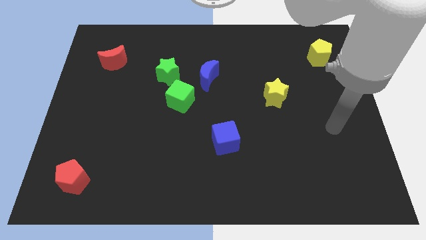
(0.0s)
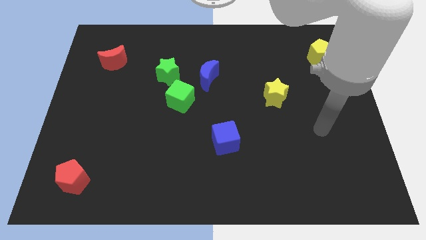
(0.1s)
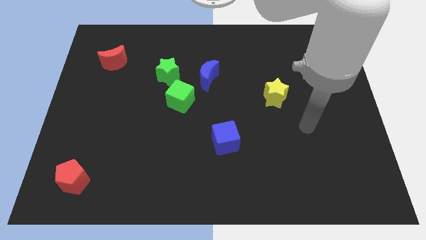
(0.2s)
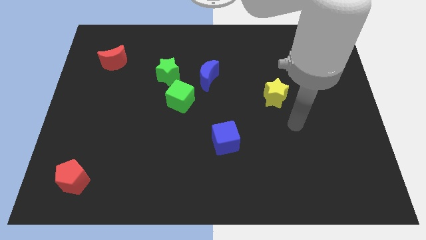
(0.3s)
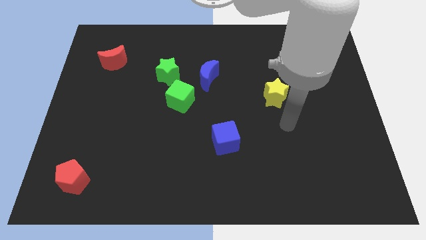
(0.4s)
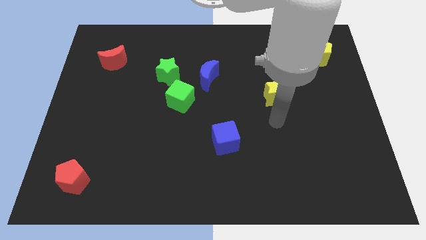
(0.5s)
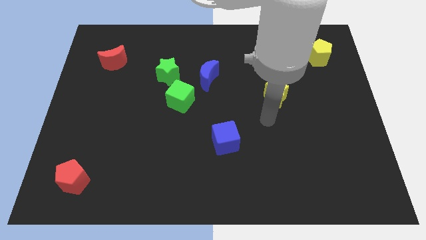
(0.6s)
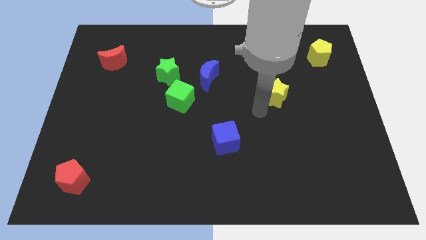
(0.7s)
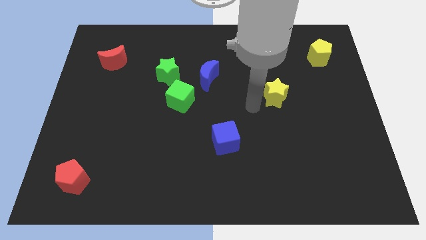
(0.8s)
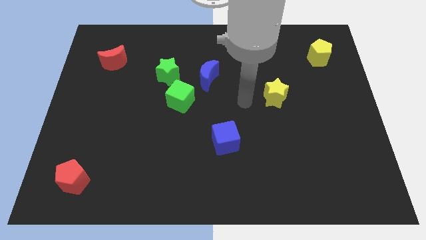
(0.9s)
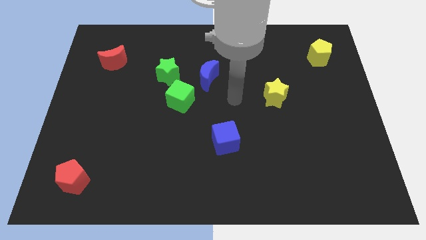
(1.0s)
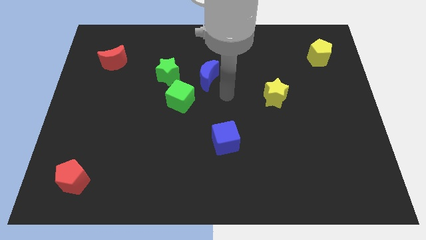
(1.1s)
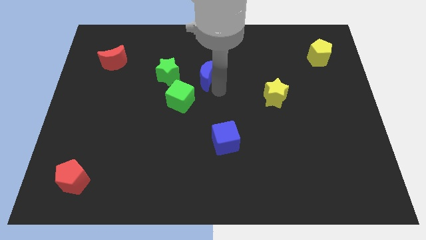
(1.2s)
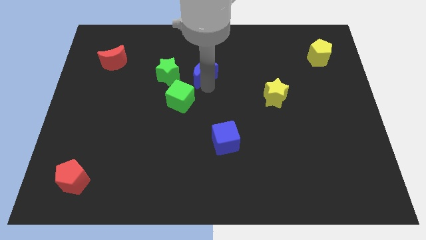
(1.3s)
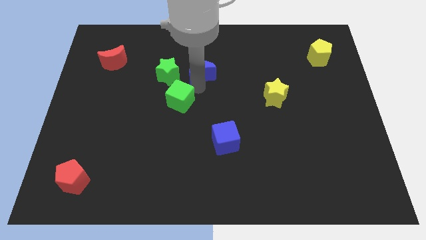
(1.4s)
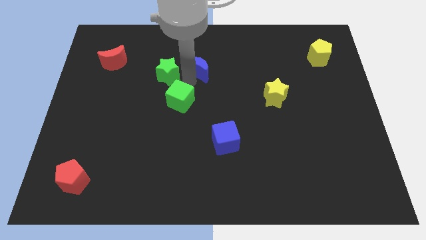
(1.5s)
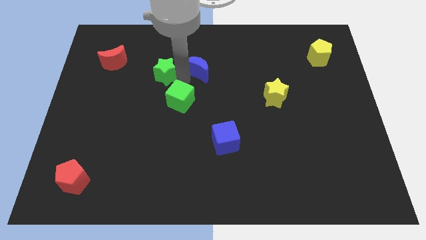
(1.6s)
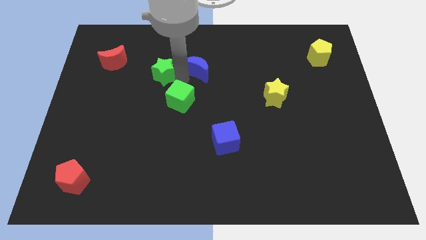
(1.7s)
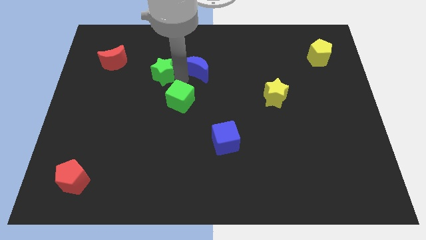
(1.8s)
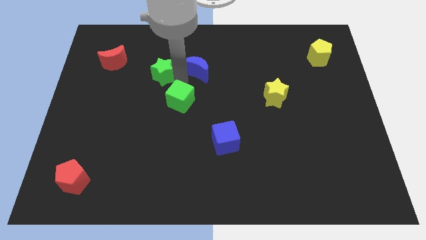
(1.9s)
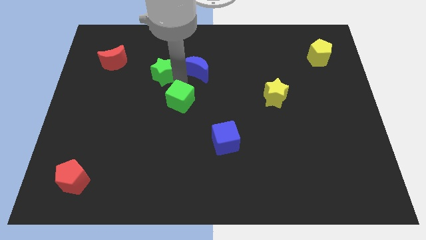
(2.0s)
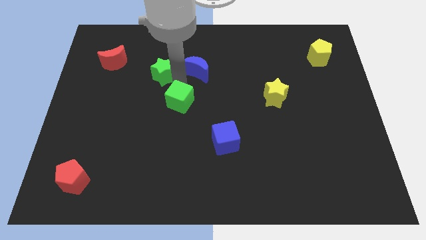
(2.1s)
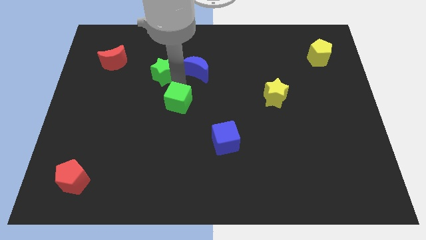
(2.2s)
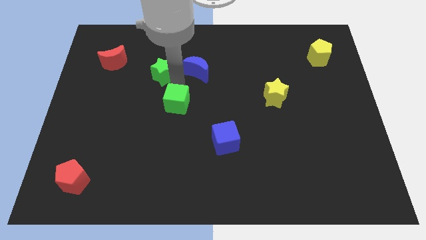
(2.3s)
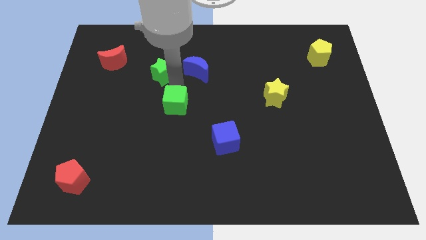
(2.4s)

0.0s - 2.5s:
pull the green cube apart from the green star and blue moon

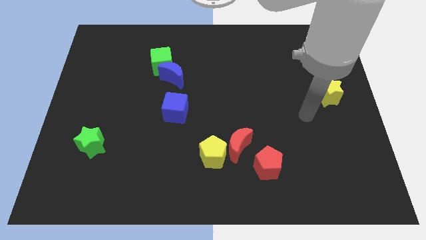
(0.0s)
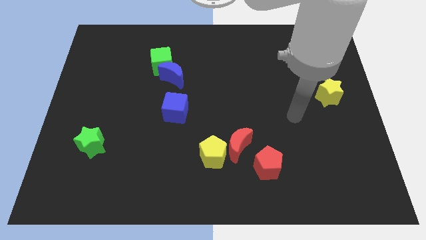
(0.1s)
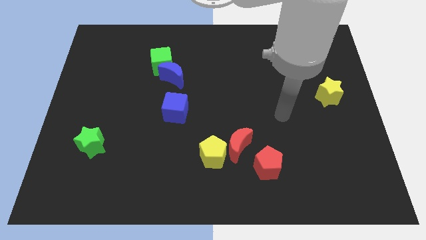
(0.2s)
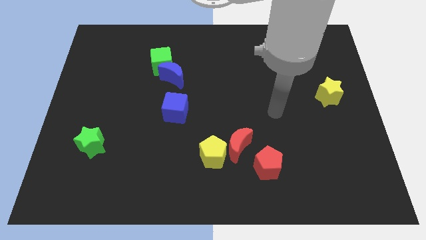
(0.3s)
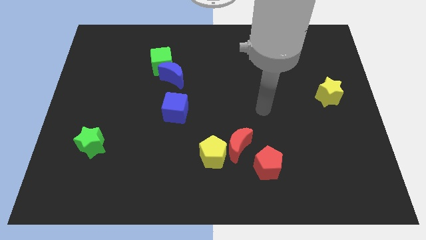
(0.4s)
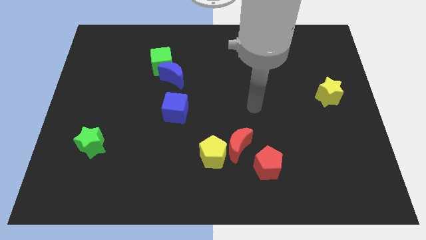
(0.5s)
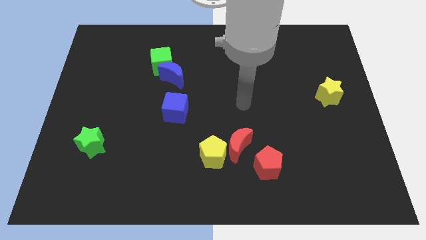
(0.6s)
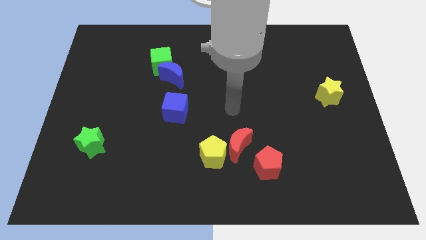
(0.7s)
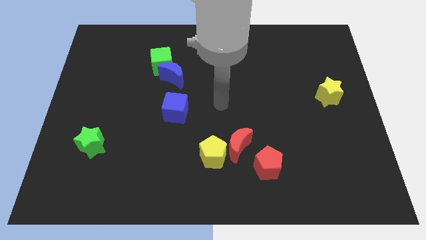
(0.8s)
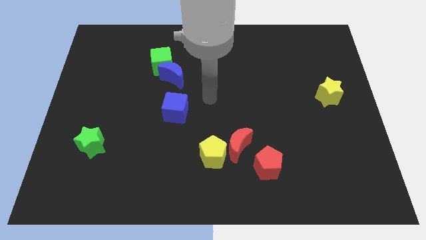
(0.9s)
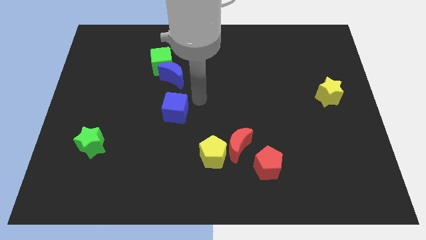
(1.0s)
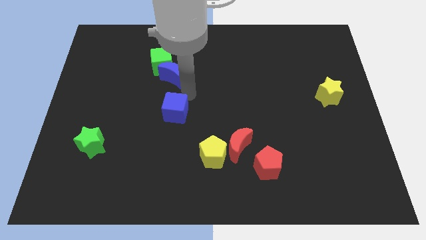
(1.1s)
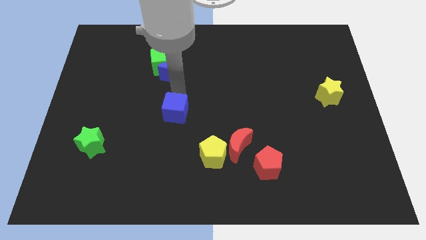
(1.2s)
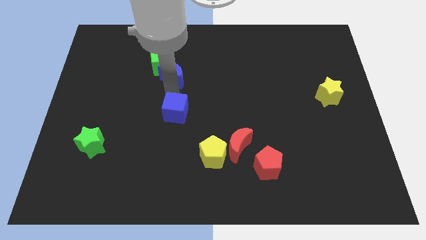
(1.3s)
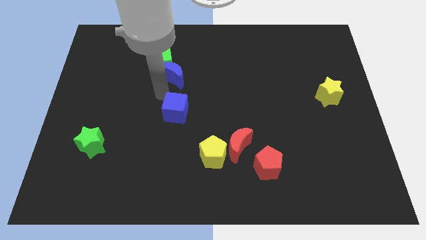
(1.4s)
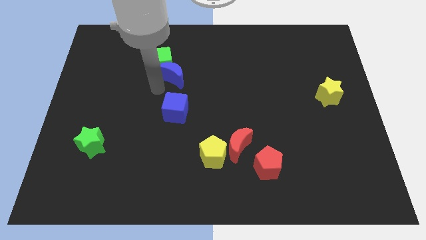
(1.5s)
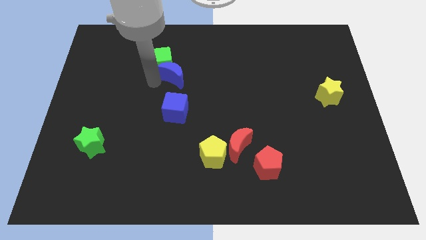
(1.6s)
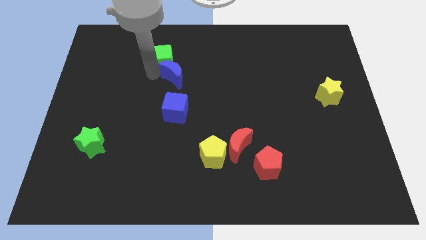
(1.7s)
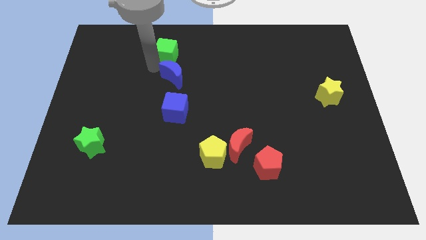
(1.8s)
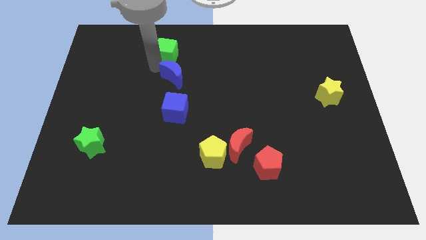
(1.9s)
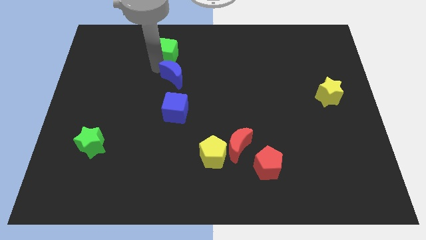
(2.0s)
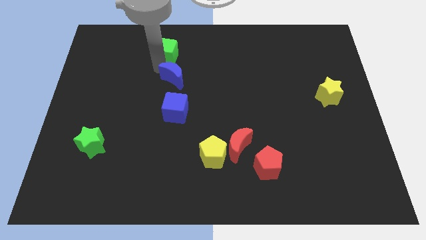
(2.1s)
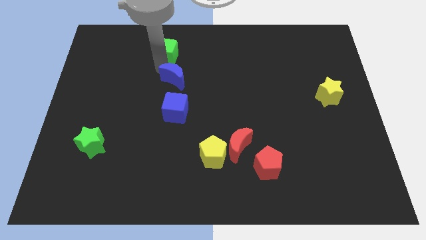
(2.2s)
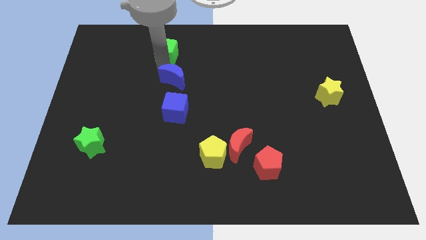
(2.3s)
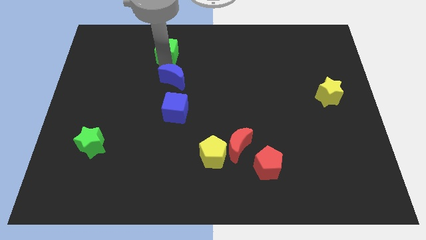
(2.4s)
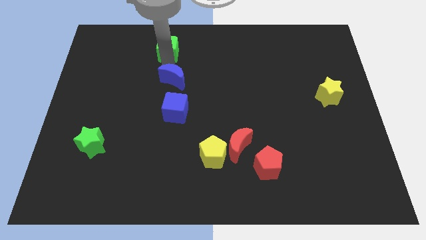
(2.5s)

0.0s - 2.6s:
pull the blue moon apart from the green cube

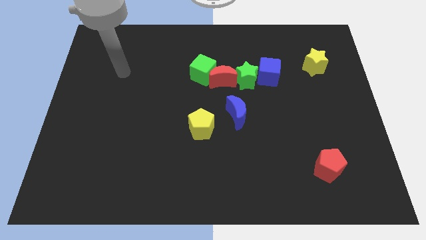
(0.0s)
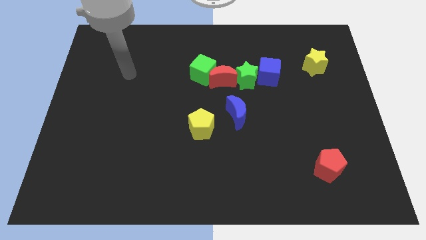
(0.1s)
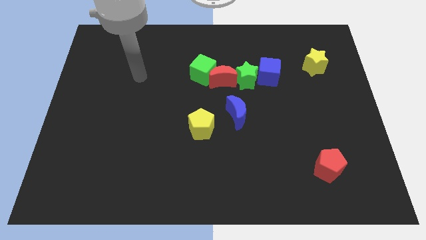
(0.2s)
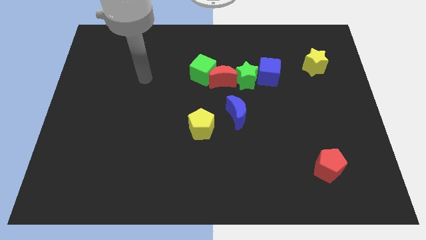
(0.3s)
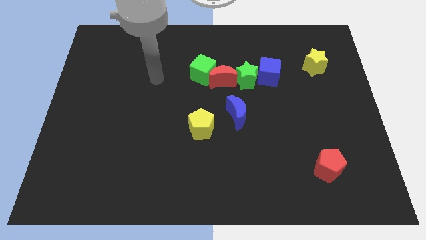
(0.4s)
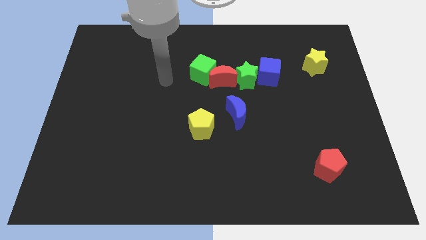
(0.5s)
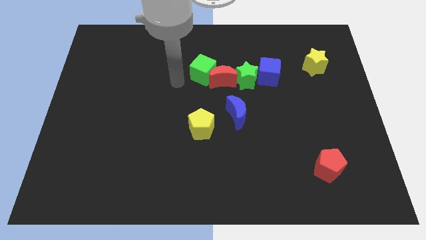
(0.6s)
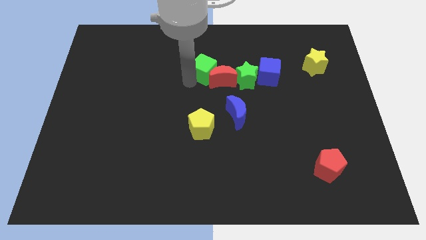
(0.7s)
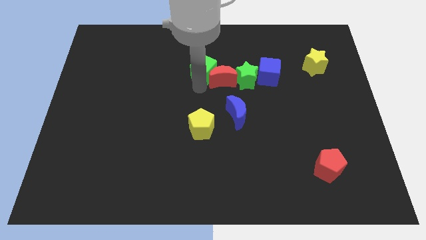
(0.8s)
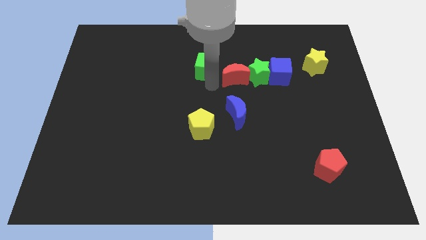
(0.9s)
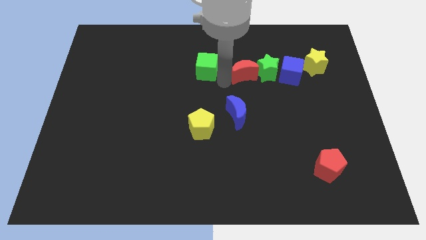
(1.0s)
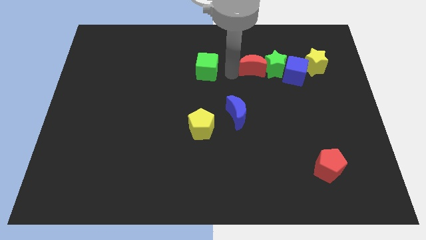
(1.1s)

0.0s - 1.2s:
move the green cube away from the red moon

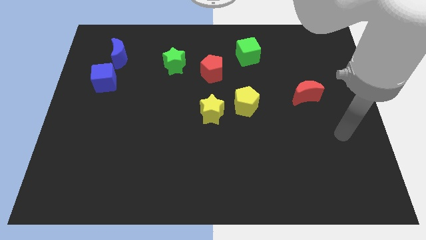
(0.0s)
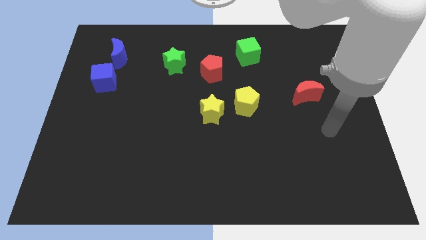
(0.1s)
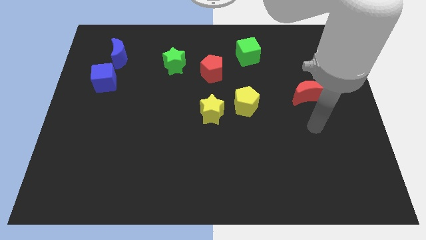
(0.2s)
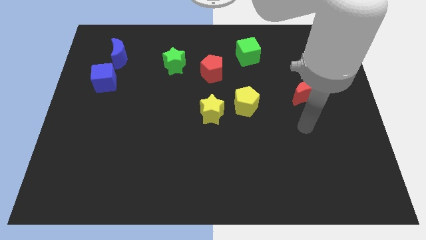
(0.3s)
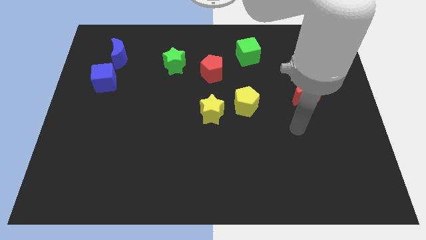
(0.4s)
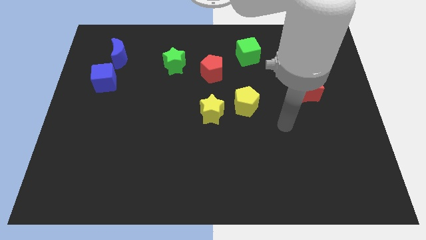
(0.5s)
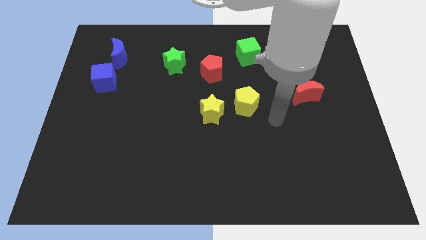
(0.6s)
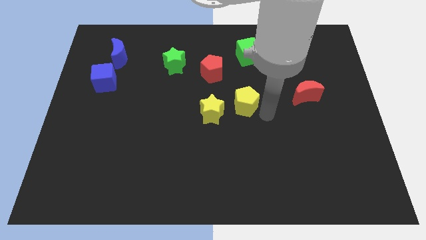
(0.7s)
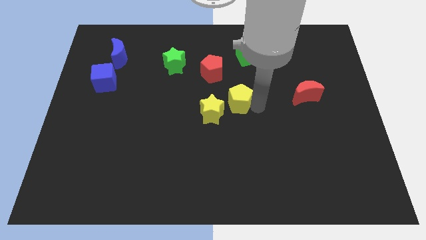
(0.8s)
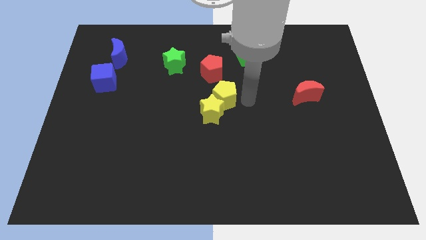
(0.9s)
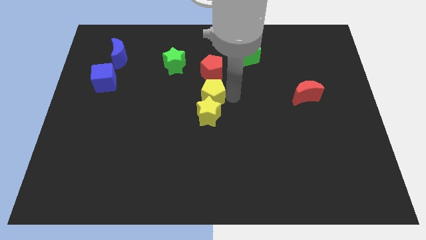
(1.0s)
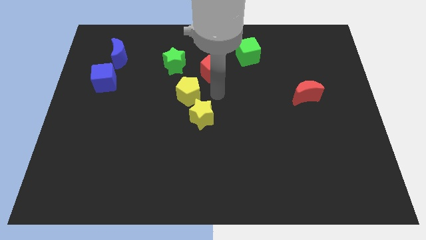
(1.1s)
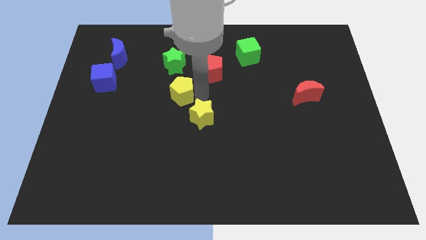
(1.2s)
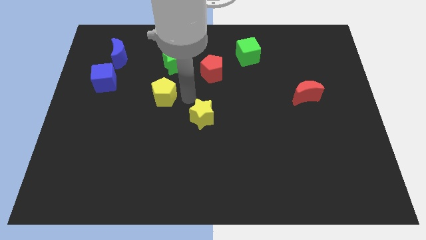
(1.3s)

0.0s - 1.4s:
pull the yellow star apart from the yellow pentagon

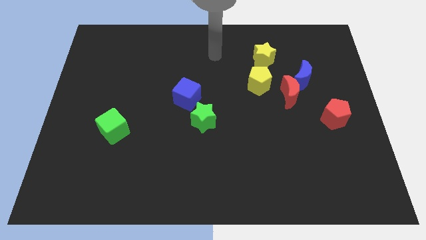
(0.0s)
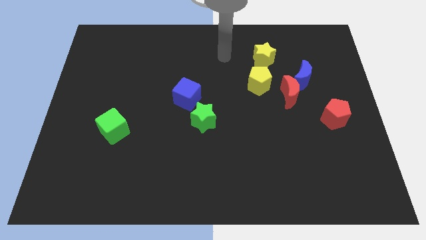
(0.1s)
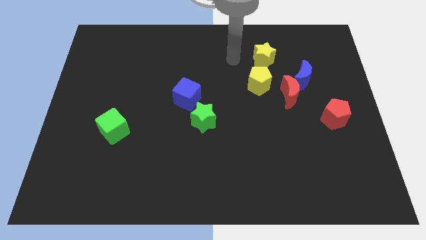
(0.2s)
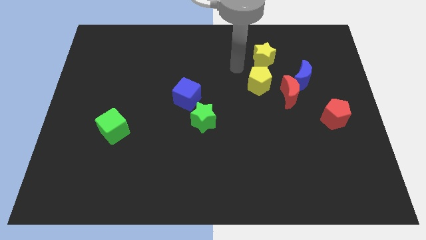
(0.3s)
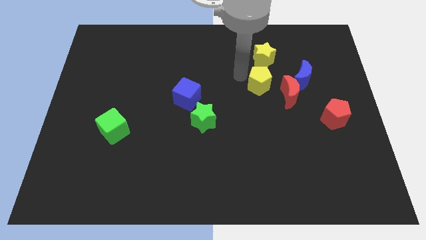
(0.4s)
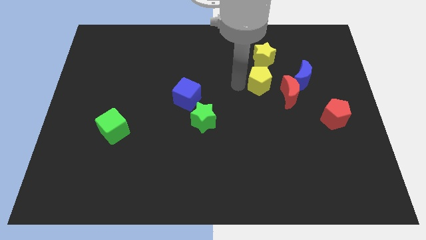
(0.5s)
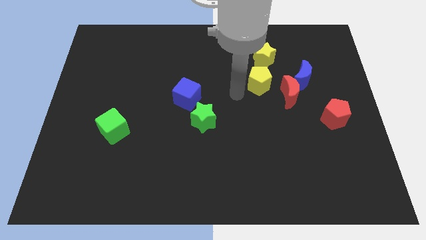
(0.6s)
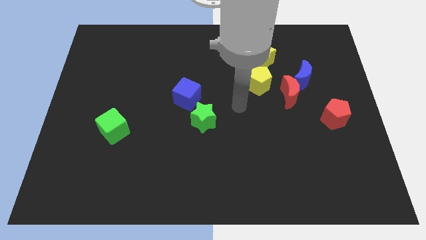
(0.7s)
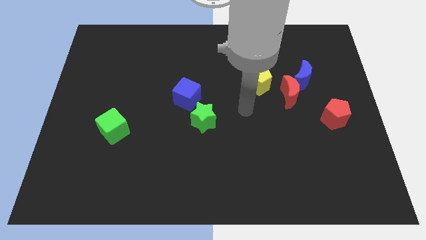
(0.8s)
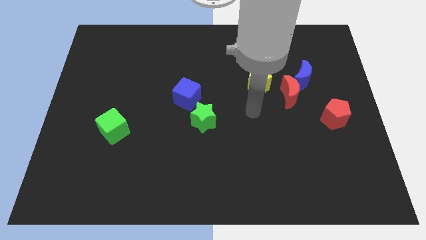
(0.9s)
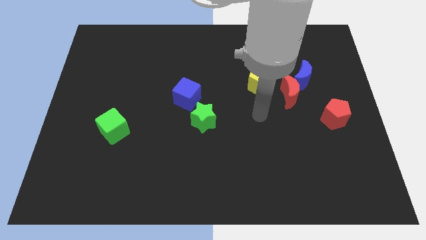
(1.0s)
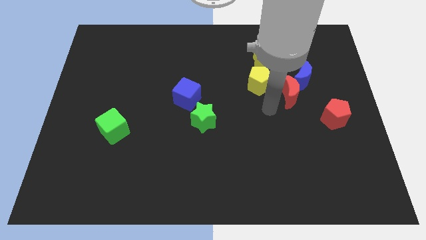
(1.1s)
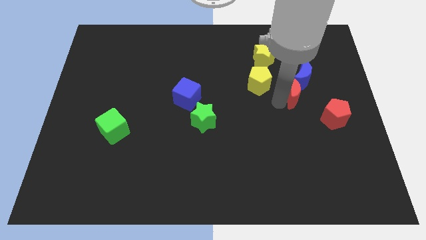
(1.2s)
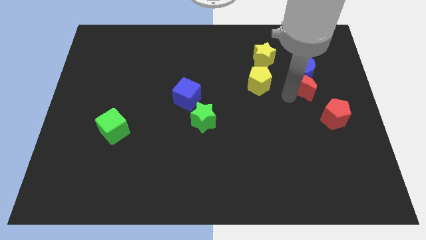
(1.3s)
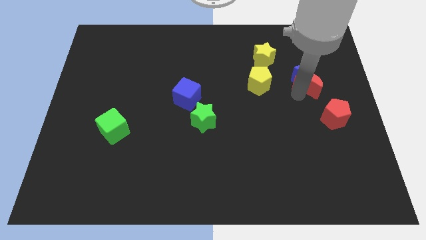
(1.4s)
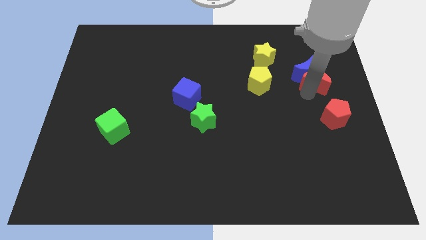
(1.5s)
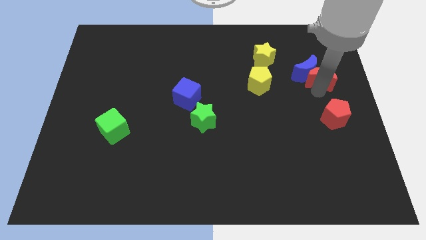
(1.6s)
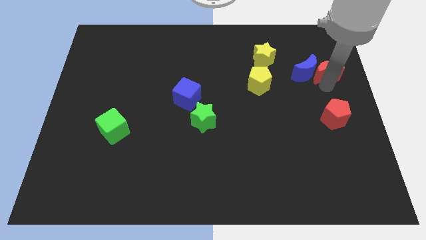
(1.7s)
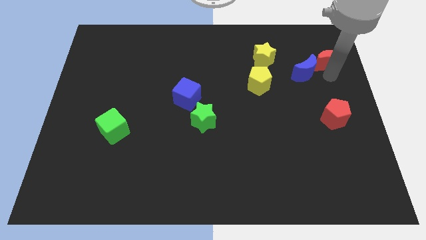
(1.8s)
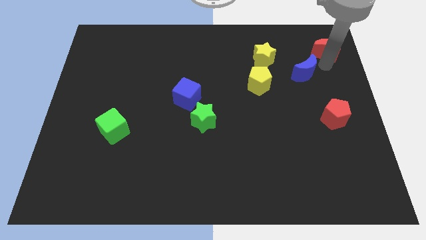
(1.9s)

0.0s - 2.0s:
separate the blue moon from the red moon
